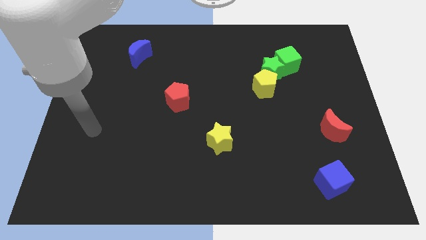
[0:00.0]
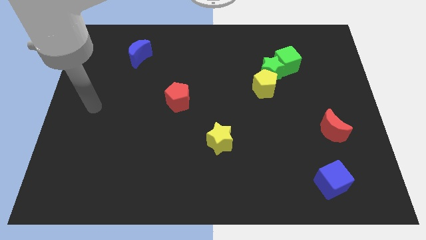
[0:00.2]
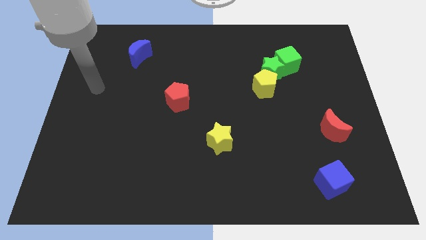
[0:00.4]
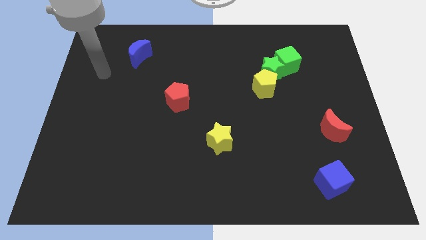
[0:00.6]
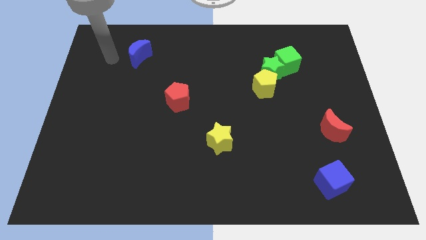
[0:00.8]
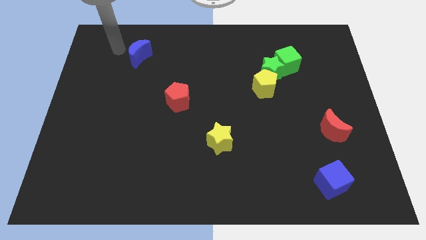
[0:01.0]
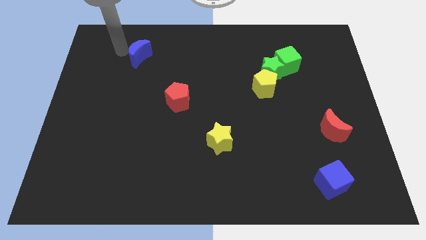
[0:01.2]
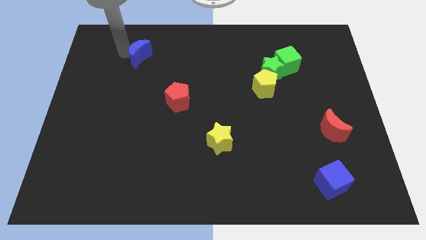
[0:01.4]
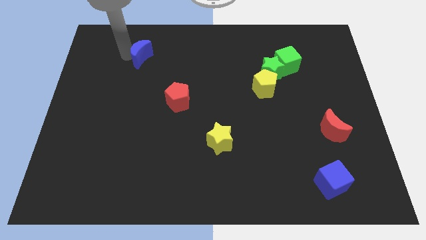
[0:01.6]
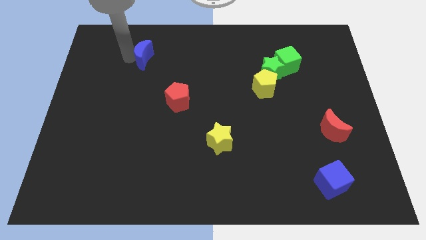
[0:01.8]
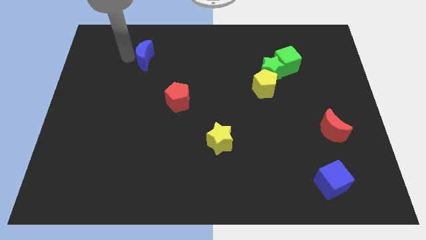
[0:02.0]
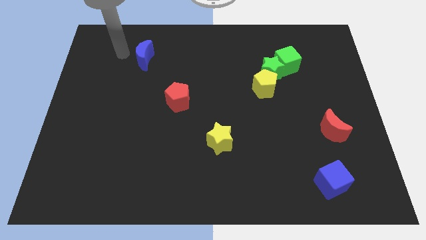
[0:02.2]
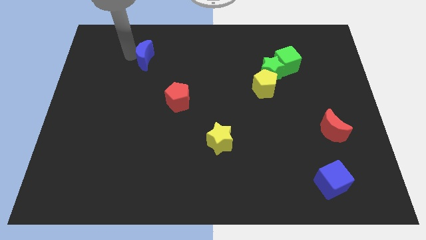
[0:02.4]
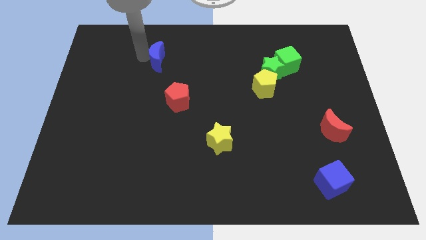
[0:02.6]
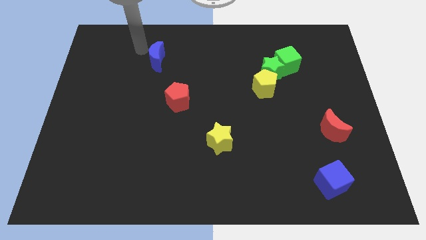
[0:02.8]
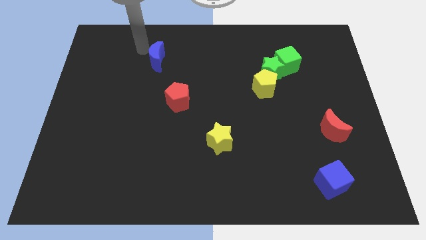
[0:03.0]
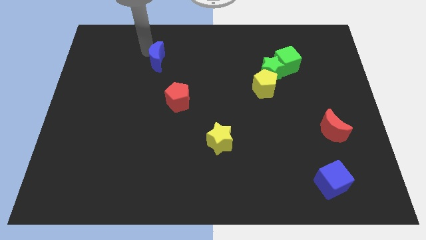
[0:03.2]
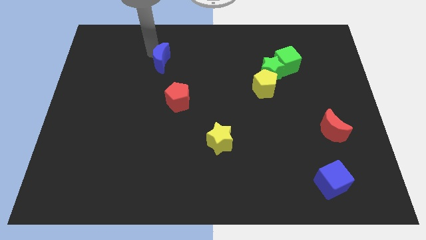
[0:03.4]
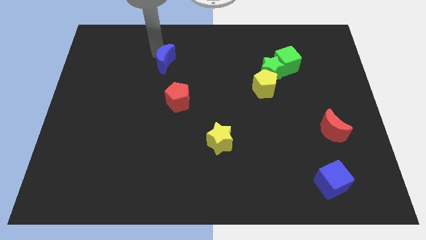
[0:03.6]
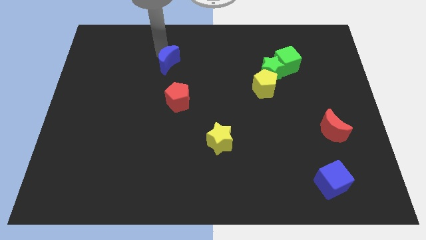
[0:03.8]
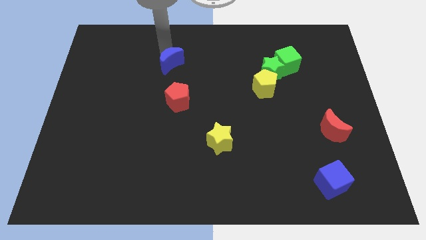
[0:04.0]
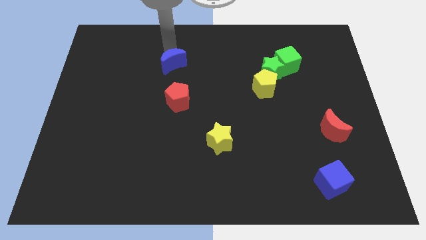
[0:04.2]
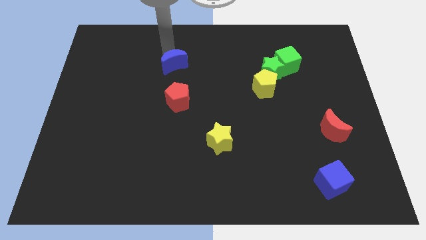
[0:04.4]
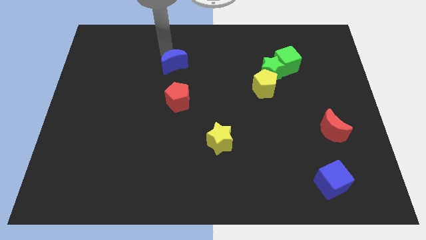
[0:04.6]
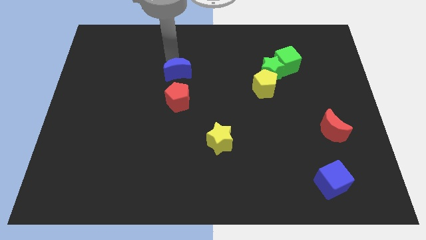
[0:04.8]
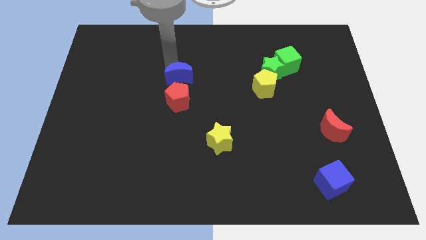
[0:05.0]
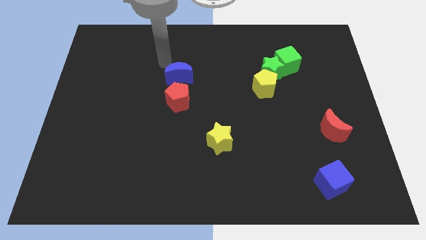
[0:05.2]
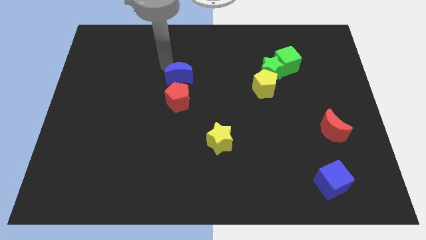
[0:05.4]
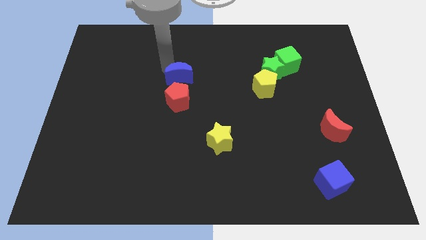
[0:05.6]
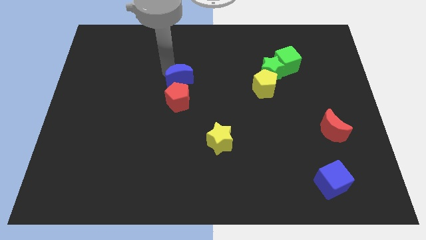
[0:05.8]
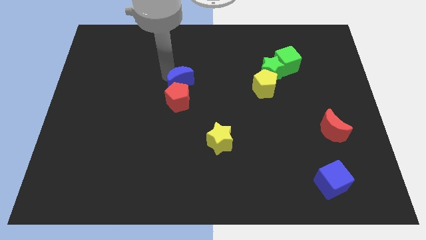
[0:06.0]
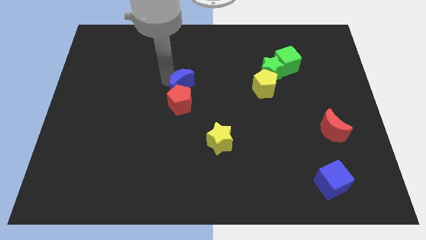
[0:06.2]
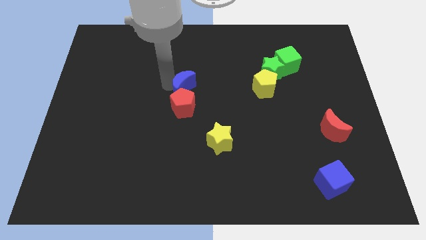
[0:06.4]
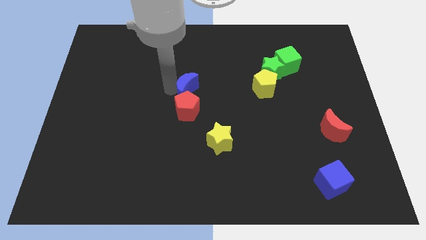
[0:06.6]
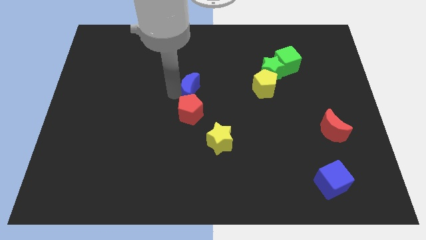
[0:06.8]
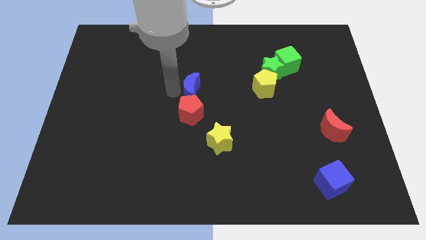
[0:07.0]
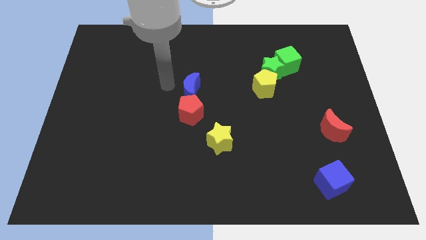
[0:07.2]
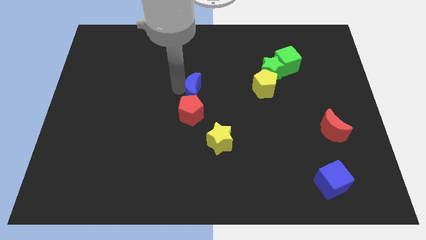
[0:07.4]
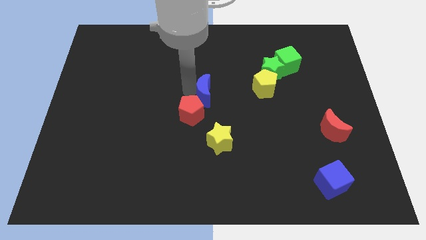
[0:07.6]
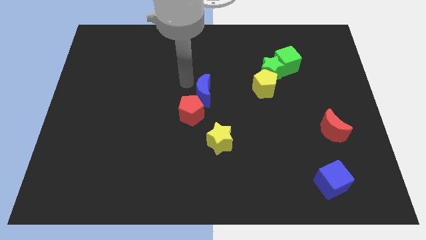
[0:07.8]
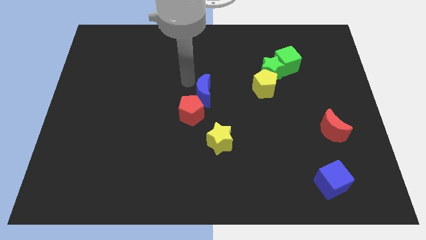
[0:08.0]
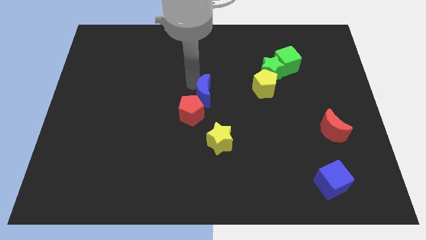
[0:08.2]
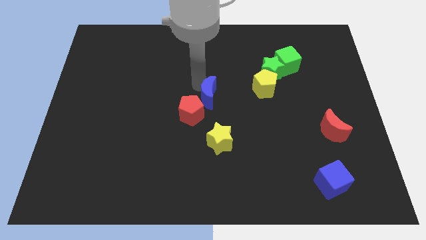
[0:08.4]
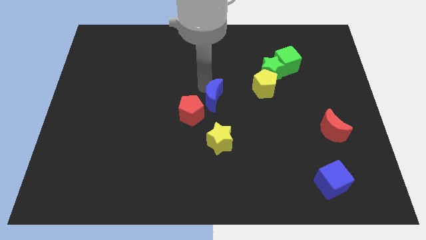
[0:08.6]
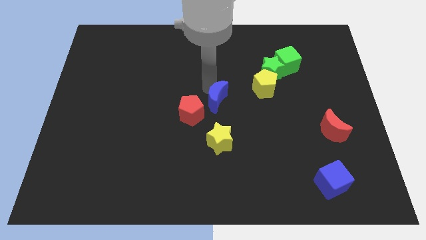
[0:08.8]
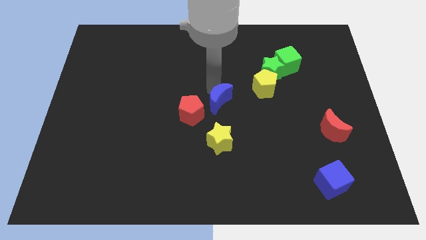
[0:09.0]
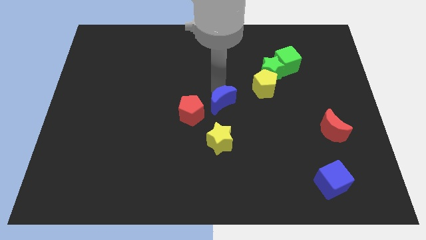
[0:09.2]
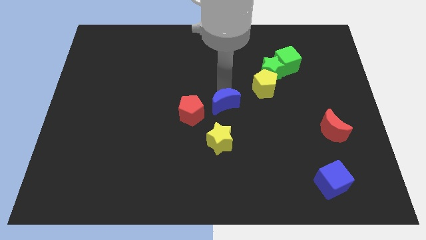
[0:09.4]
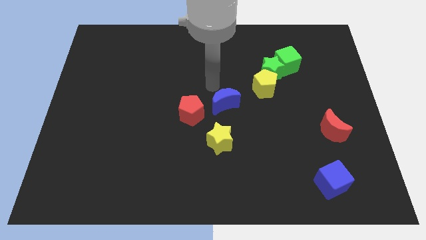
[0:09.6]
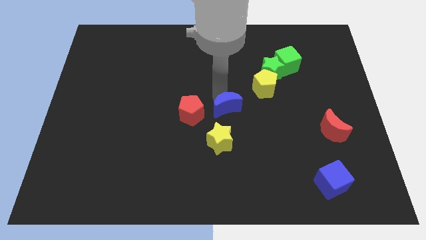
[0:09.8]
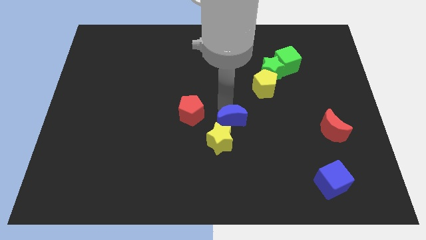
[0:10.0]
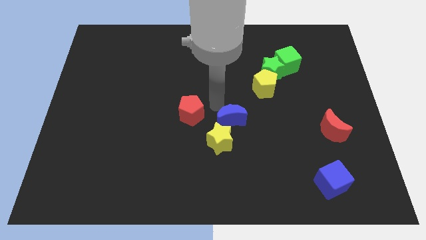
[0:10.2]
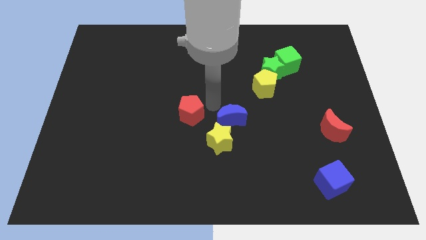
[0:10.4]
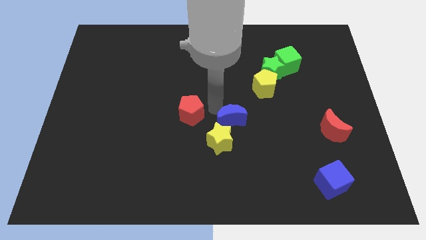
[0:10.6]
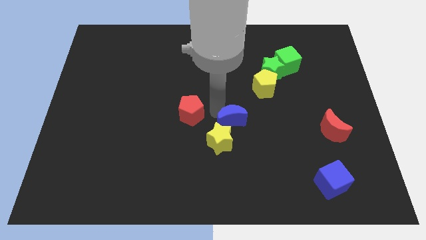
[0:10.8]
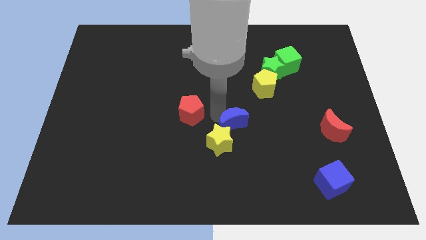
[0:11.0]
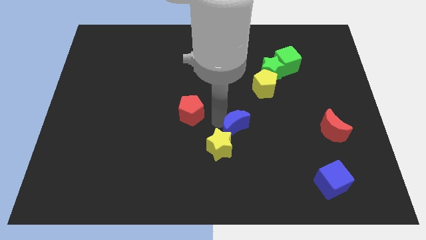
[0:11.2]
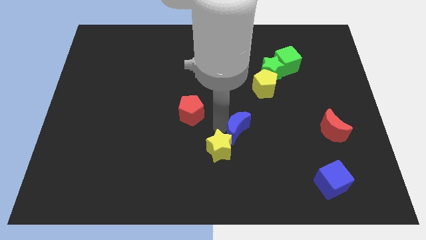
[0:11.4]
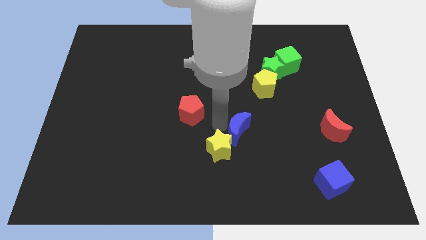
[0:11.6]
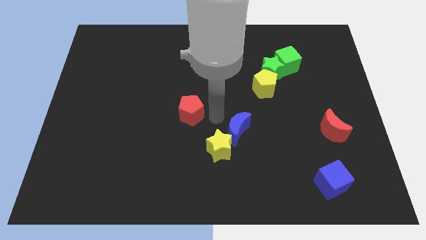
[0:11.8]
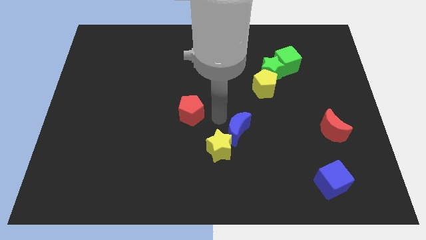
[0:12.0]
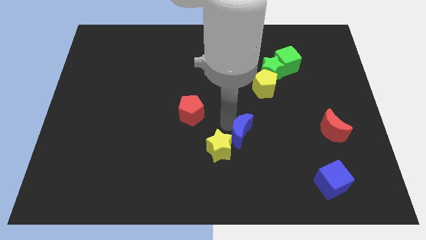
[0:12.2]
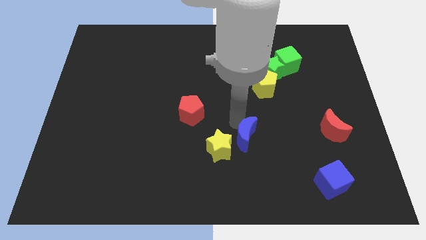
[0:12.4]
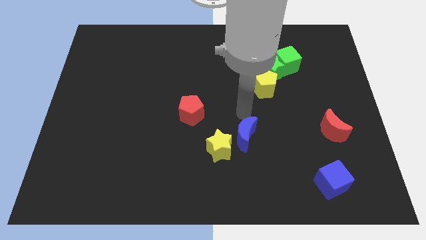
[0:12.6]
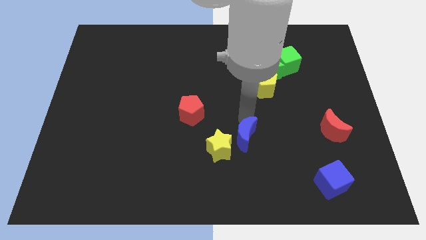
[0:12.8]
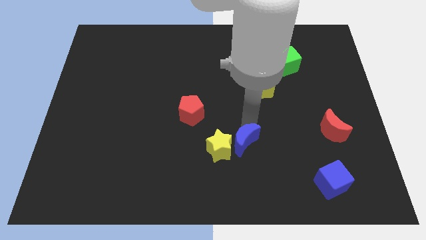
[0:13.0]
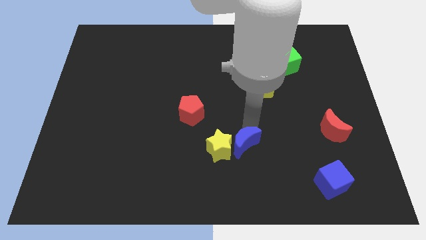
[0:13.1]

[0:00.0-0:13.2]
slide the blue moon to the bottom right side of the yellow star

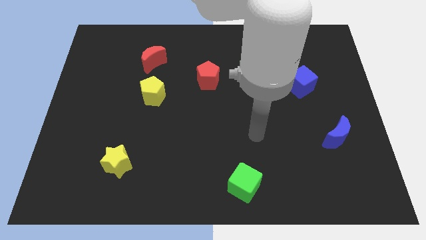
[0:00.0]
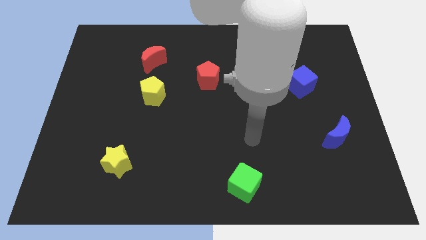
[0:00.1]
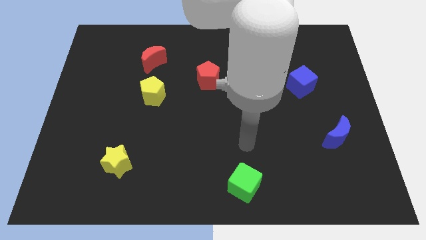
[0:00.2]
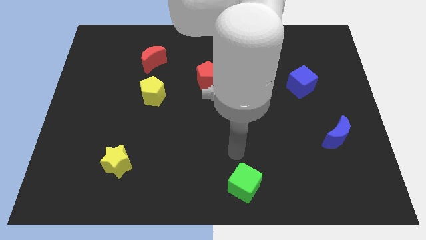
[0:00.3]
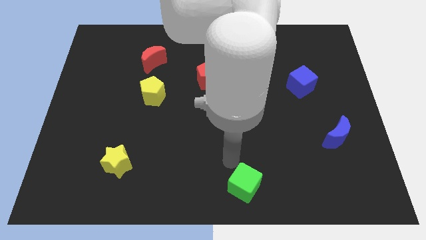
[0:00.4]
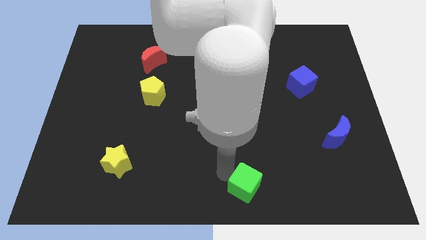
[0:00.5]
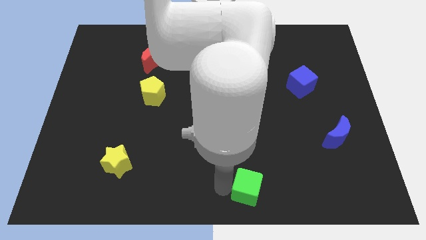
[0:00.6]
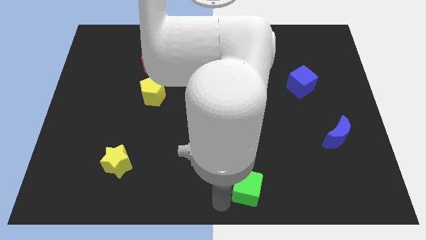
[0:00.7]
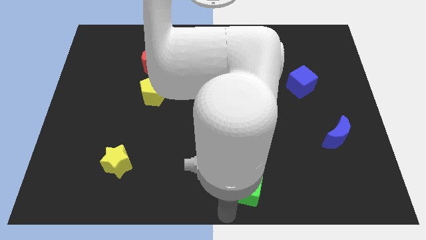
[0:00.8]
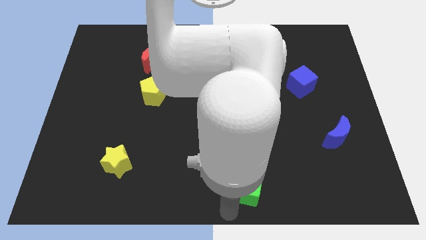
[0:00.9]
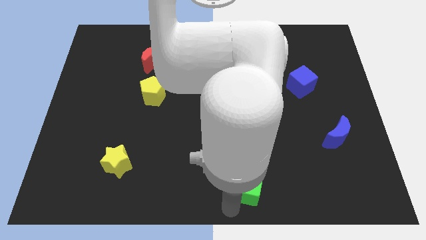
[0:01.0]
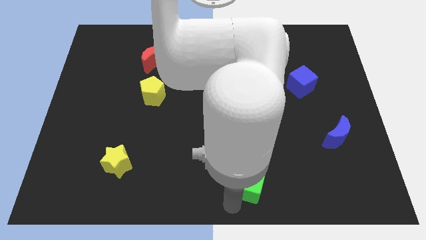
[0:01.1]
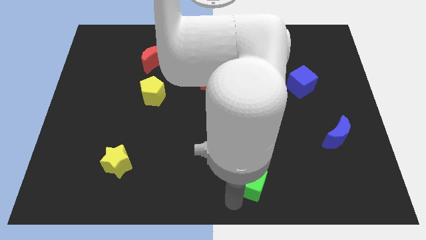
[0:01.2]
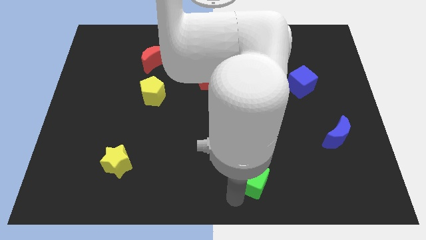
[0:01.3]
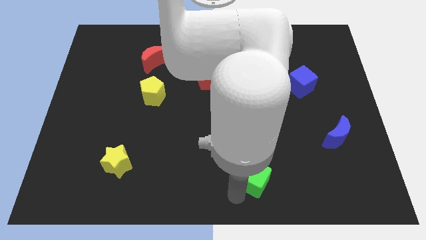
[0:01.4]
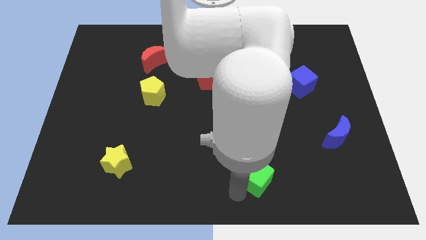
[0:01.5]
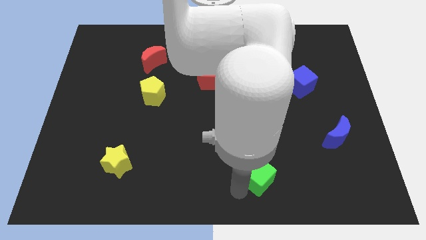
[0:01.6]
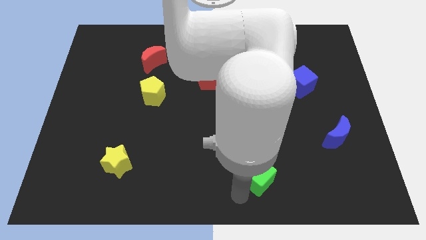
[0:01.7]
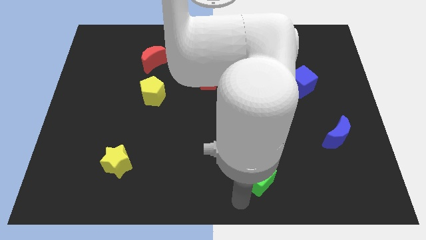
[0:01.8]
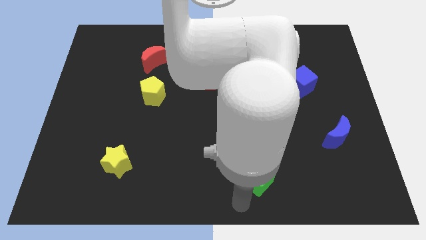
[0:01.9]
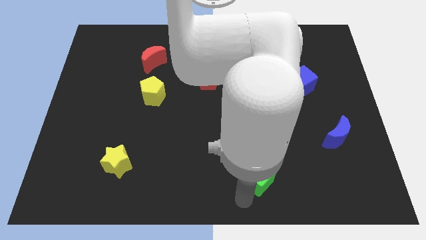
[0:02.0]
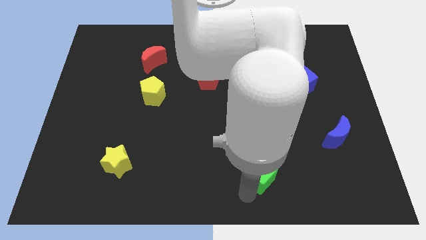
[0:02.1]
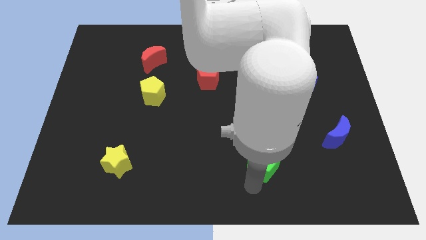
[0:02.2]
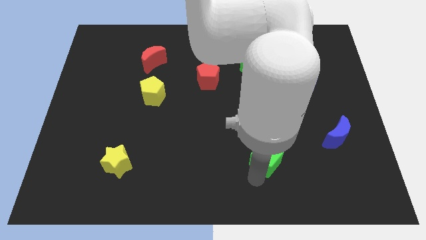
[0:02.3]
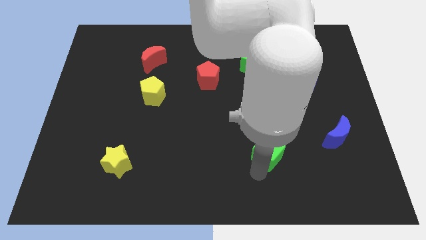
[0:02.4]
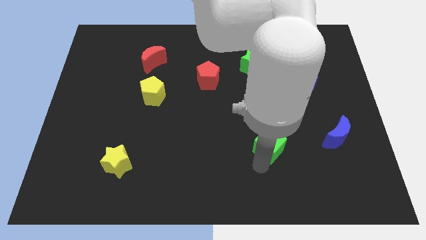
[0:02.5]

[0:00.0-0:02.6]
move the green cube to the left of the blue moon
